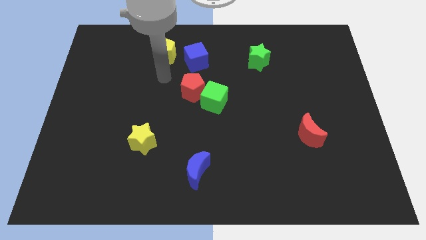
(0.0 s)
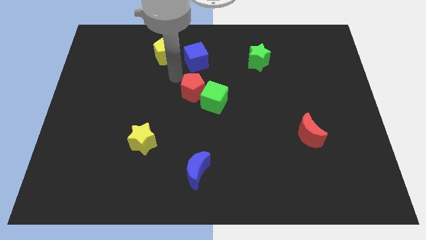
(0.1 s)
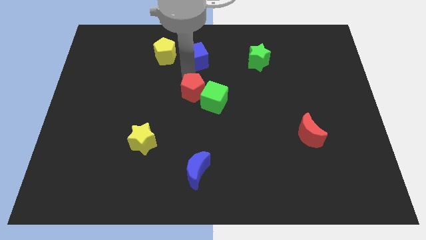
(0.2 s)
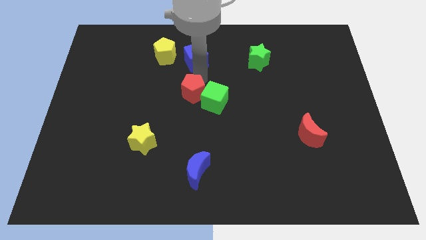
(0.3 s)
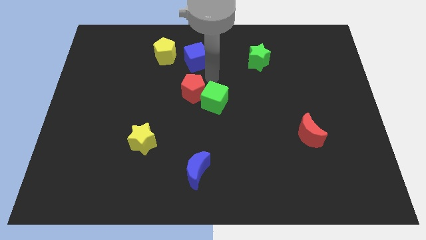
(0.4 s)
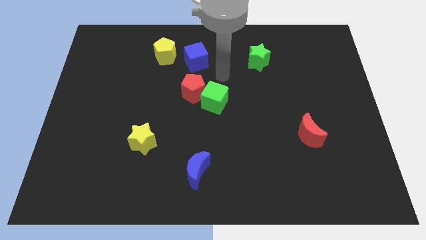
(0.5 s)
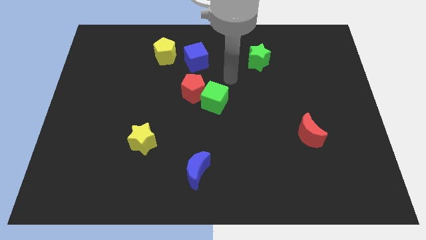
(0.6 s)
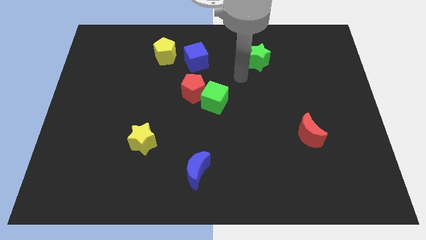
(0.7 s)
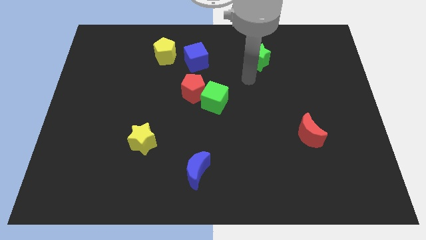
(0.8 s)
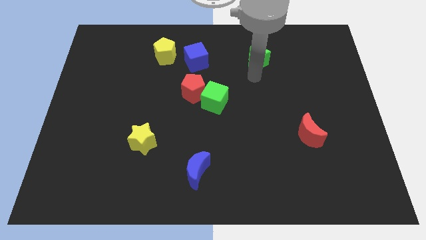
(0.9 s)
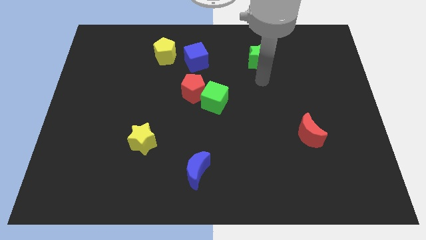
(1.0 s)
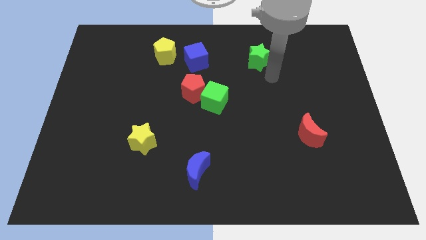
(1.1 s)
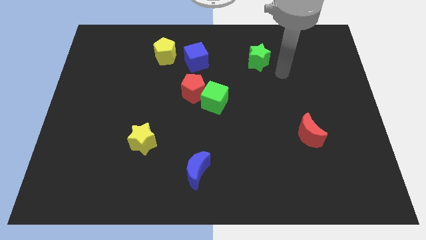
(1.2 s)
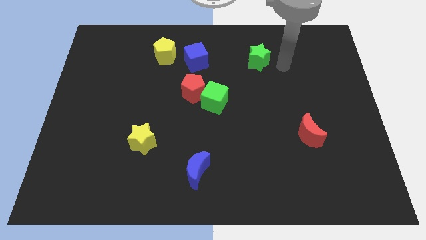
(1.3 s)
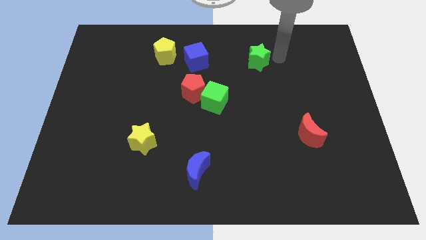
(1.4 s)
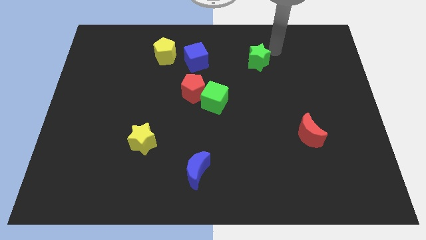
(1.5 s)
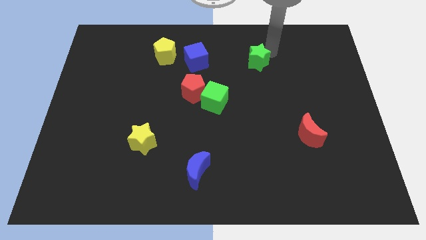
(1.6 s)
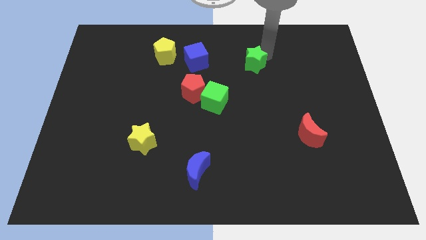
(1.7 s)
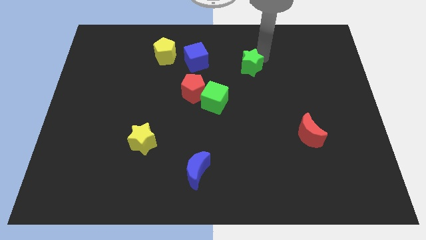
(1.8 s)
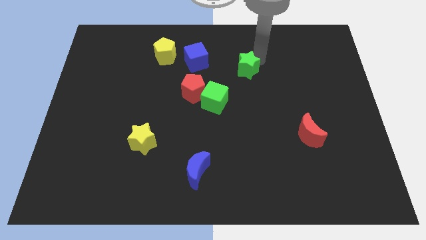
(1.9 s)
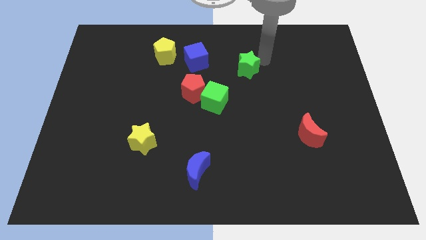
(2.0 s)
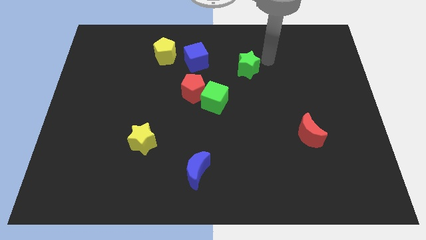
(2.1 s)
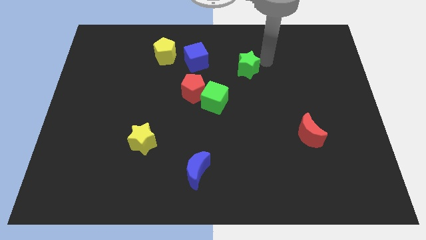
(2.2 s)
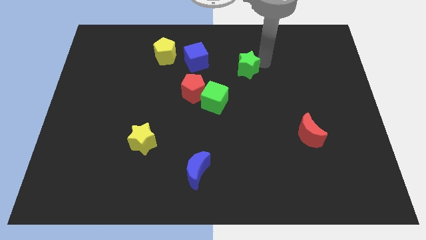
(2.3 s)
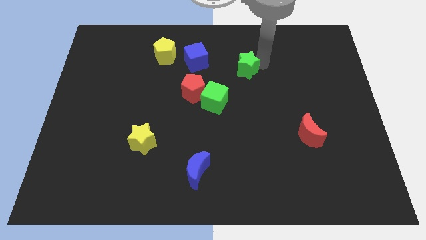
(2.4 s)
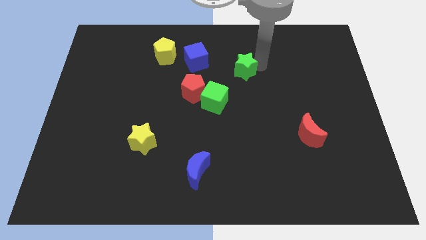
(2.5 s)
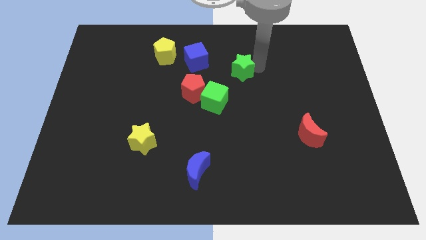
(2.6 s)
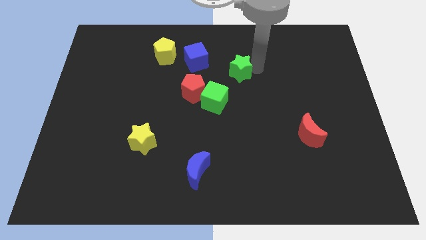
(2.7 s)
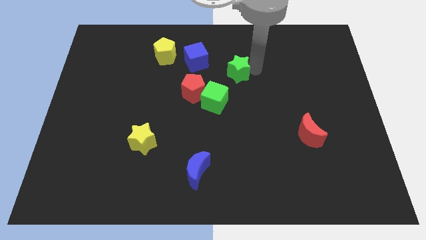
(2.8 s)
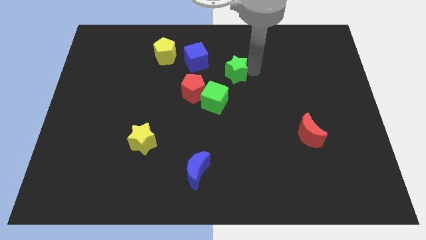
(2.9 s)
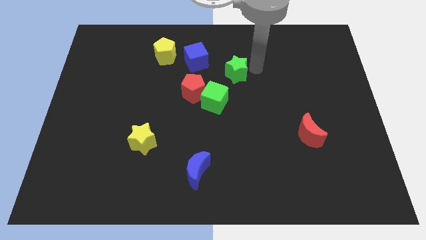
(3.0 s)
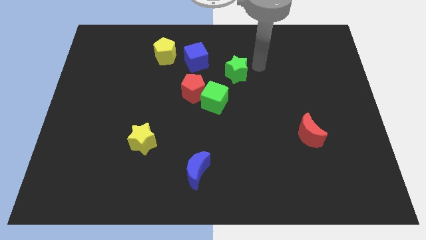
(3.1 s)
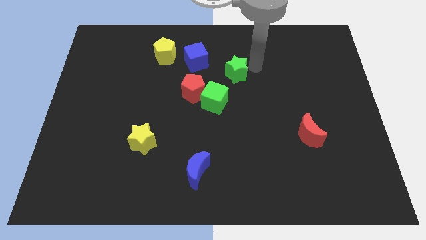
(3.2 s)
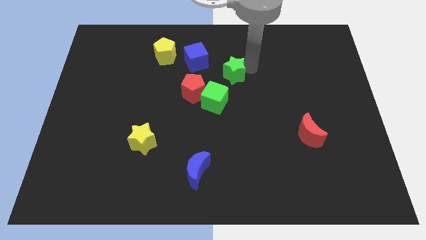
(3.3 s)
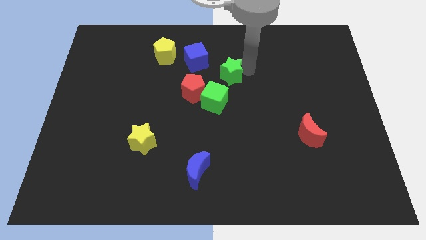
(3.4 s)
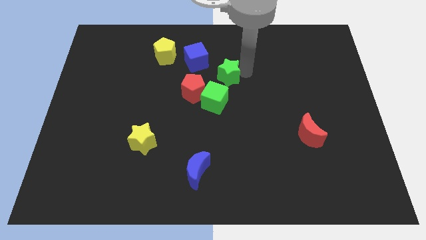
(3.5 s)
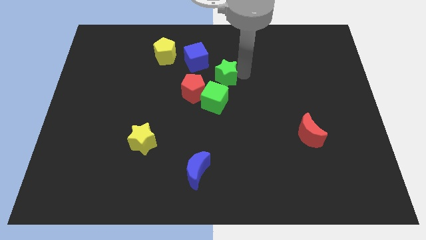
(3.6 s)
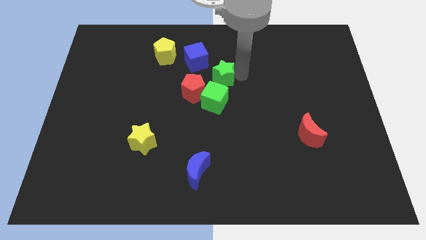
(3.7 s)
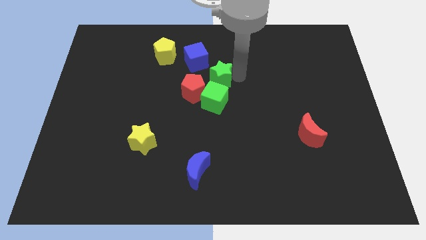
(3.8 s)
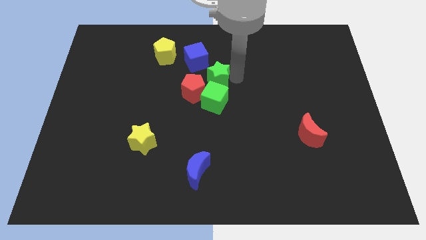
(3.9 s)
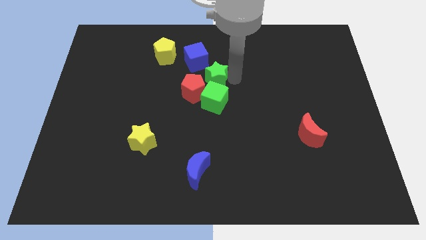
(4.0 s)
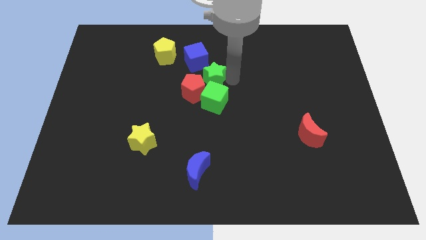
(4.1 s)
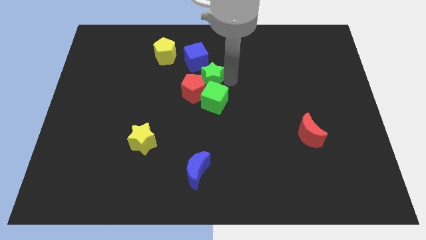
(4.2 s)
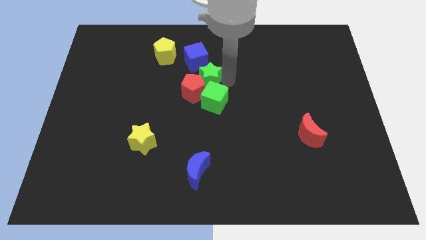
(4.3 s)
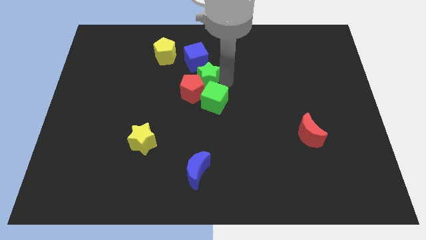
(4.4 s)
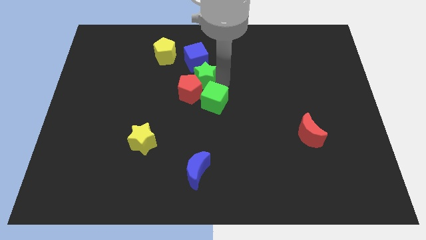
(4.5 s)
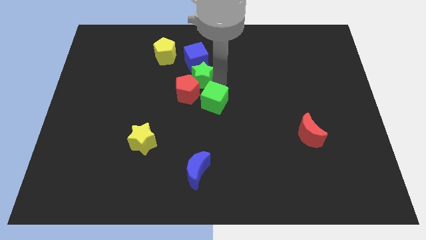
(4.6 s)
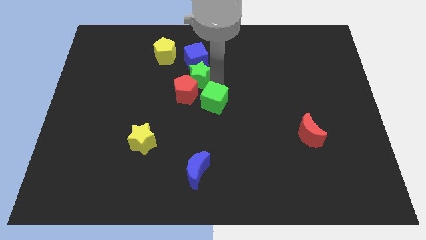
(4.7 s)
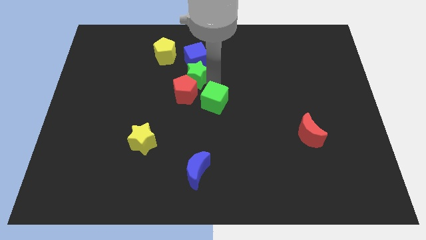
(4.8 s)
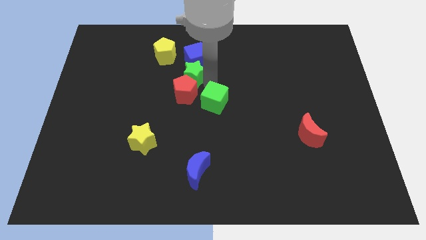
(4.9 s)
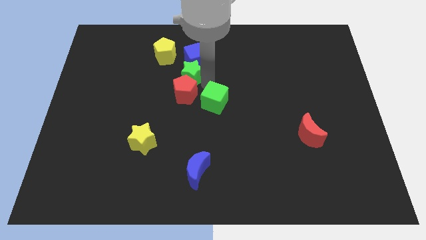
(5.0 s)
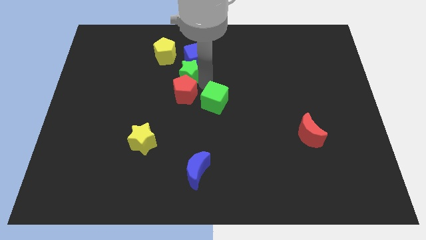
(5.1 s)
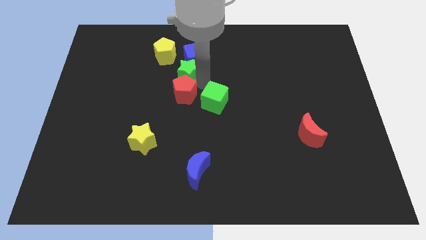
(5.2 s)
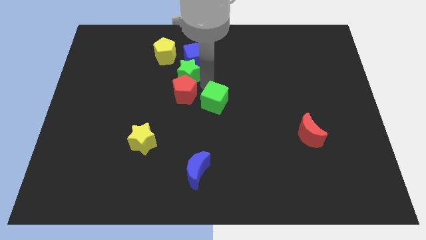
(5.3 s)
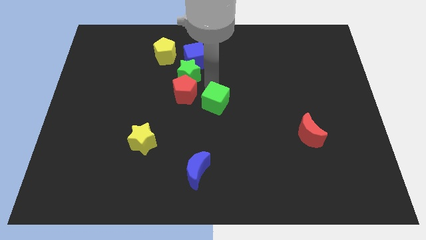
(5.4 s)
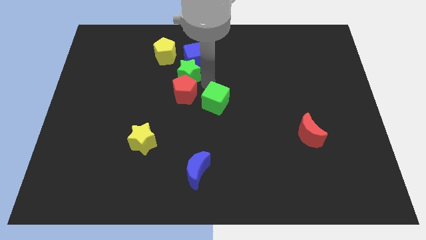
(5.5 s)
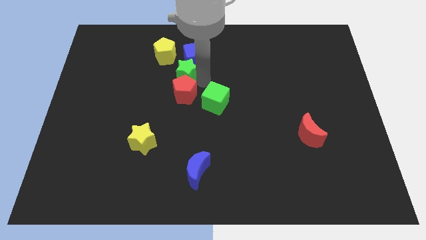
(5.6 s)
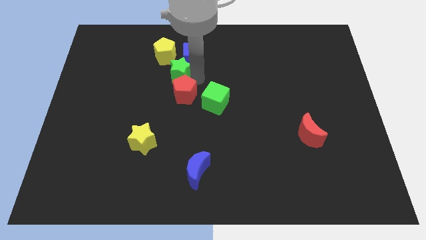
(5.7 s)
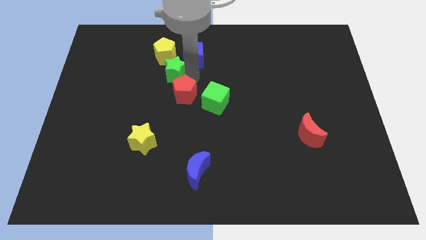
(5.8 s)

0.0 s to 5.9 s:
move the green star to the left

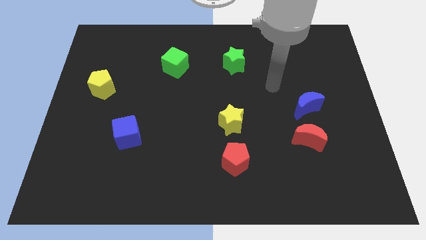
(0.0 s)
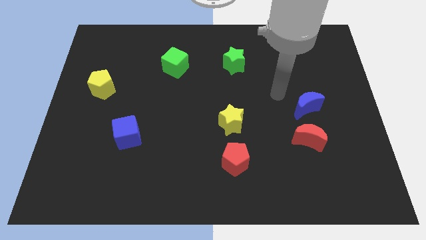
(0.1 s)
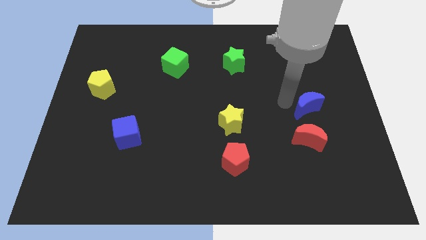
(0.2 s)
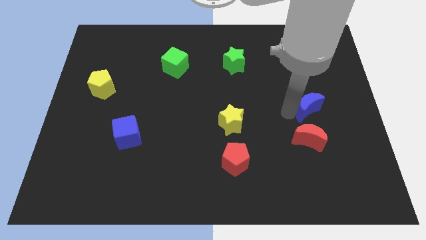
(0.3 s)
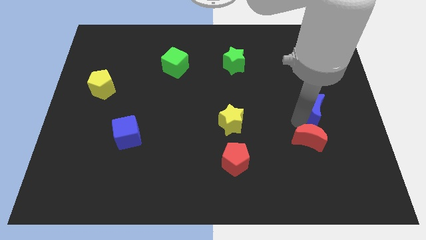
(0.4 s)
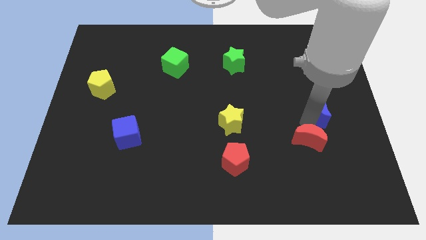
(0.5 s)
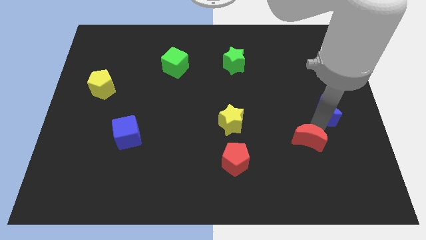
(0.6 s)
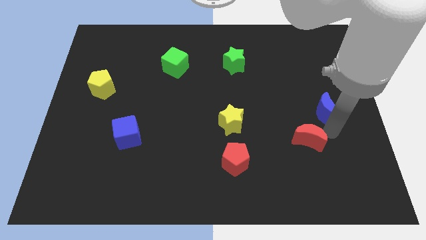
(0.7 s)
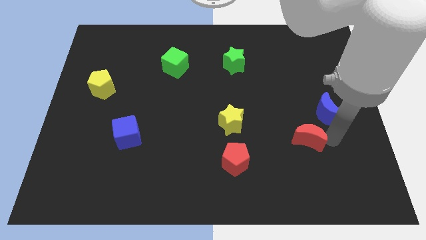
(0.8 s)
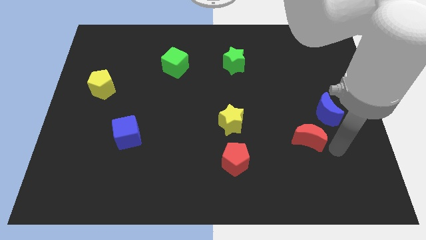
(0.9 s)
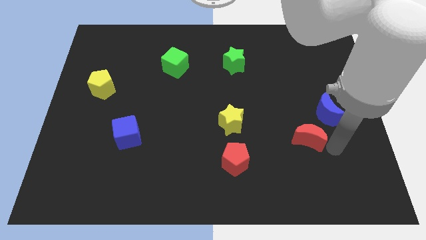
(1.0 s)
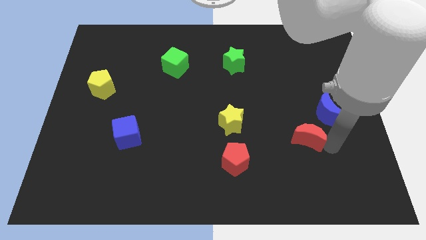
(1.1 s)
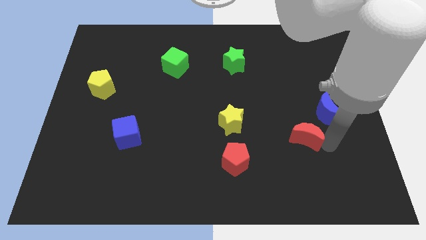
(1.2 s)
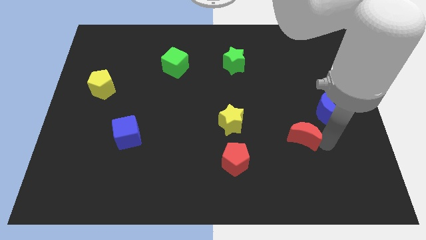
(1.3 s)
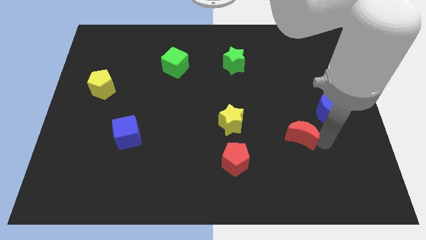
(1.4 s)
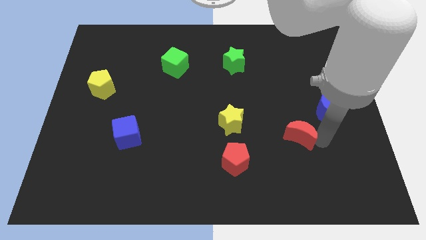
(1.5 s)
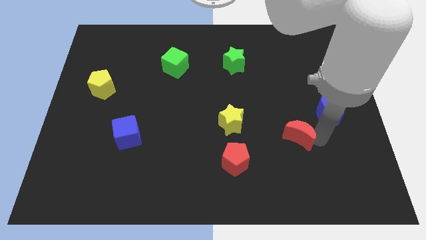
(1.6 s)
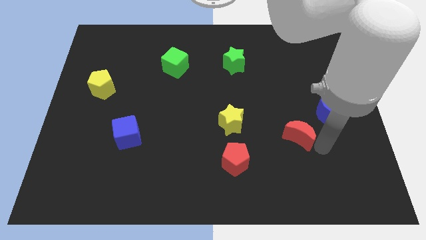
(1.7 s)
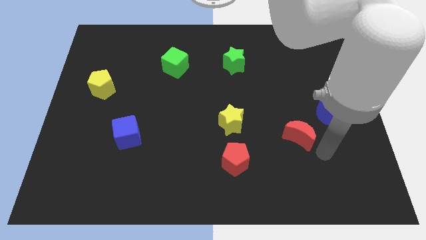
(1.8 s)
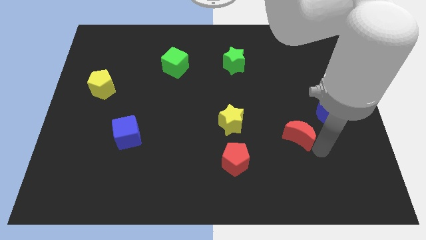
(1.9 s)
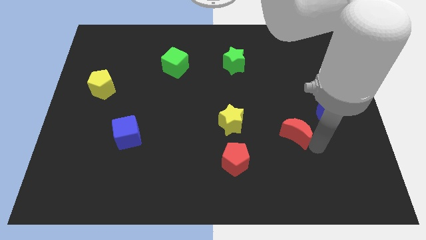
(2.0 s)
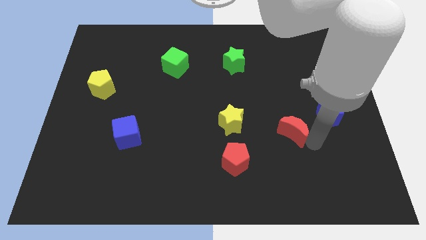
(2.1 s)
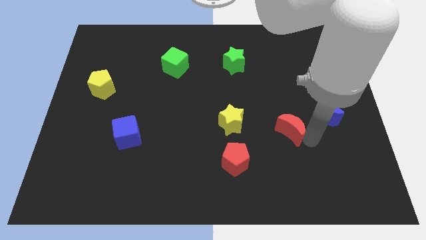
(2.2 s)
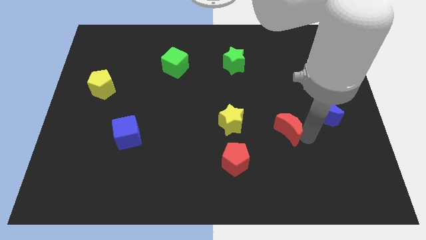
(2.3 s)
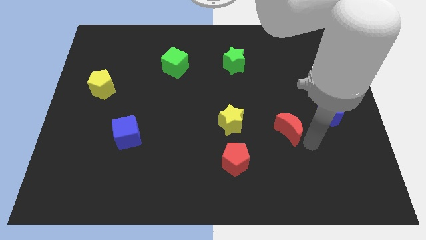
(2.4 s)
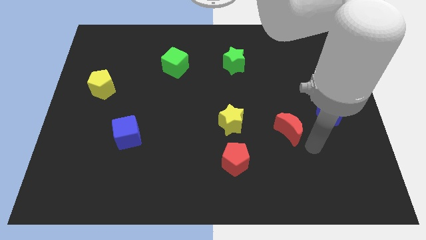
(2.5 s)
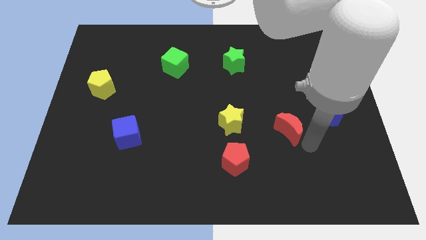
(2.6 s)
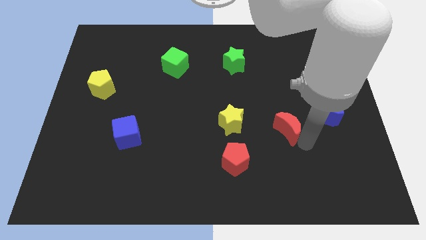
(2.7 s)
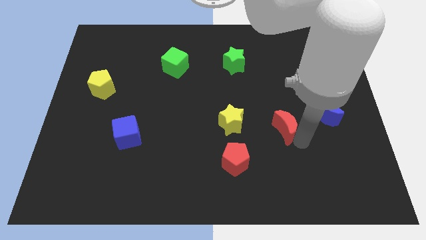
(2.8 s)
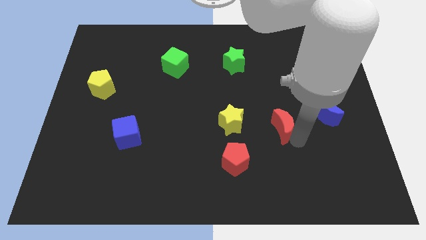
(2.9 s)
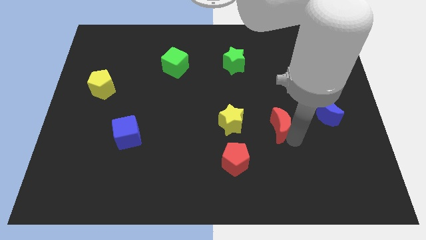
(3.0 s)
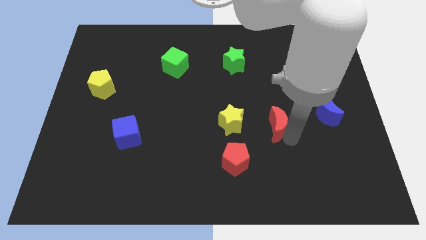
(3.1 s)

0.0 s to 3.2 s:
slightly slide the red moon up and left
